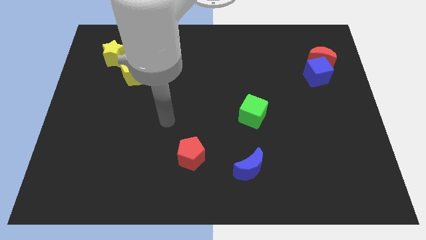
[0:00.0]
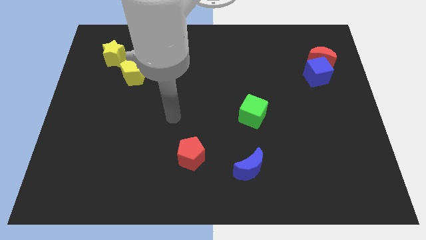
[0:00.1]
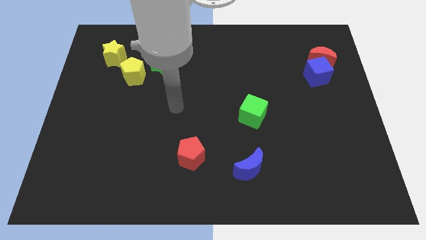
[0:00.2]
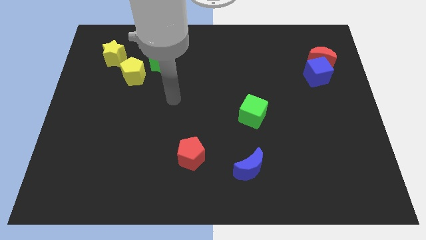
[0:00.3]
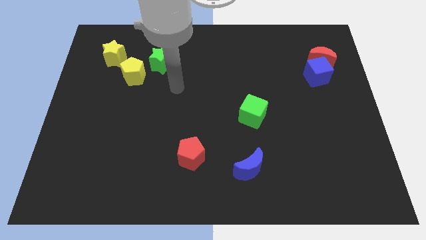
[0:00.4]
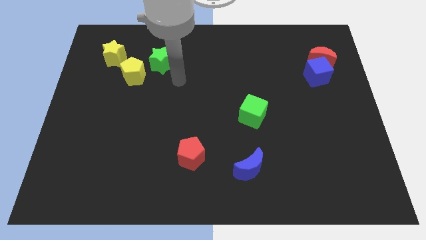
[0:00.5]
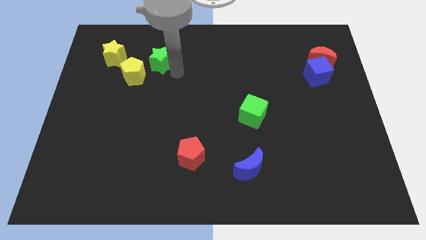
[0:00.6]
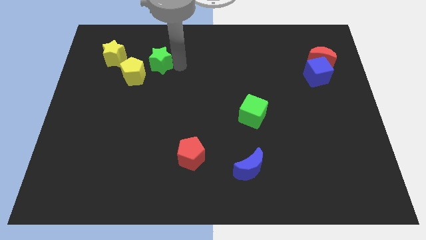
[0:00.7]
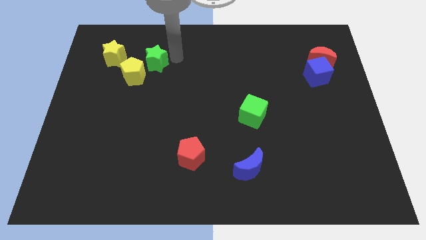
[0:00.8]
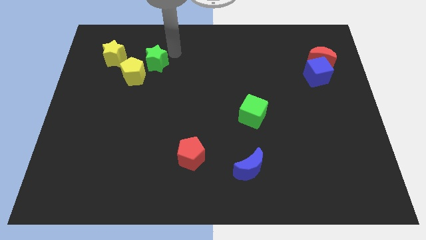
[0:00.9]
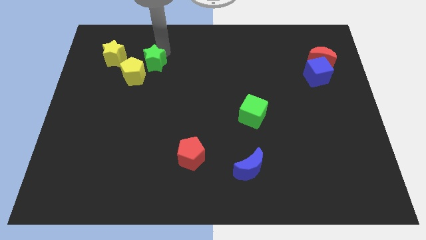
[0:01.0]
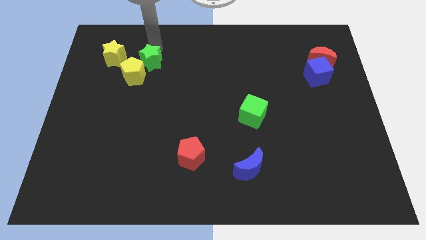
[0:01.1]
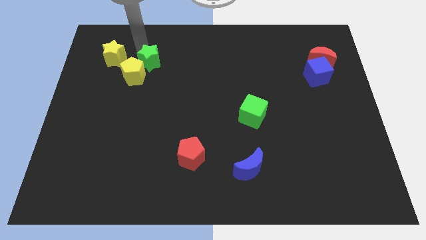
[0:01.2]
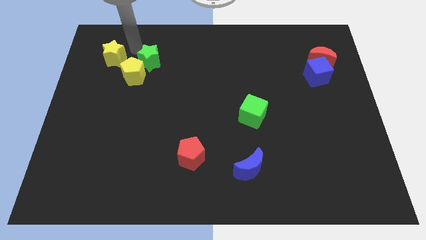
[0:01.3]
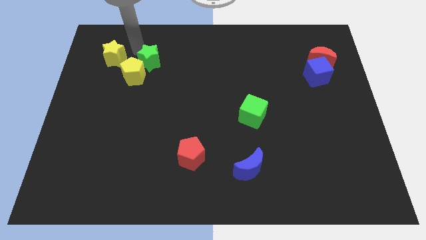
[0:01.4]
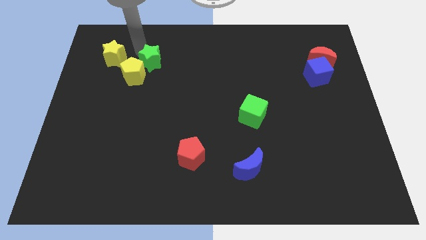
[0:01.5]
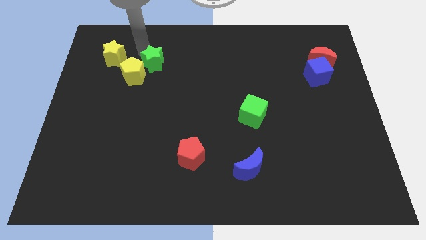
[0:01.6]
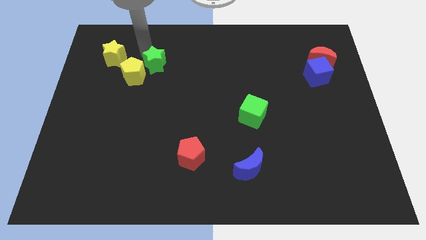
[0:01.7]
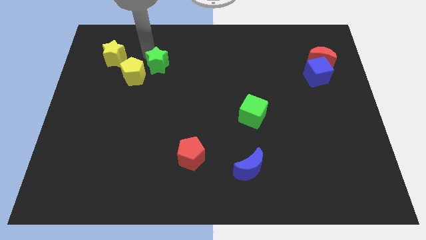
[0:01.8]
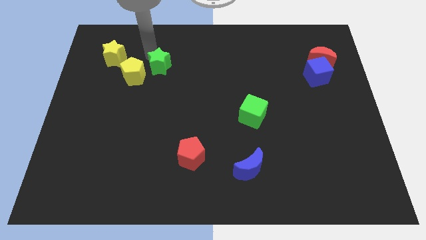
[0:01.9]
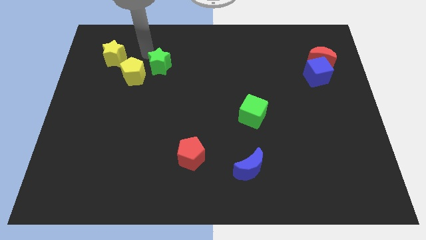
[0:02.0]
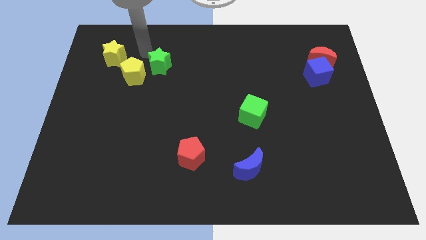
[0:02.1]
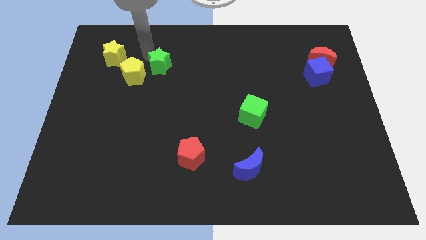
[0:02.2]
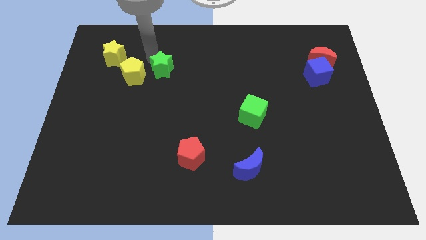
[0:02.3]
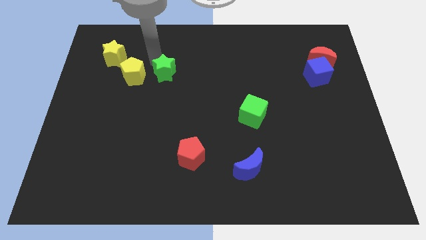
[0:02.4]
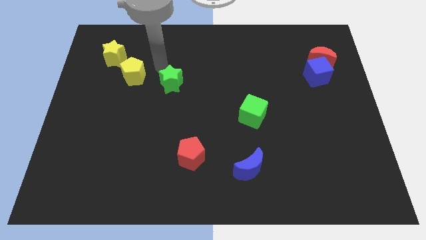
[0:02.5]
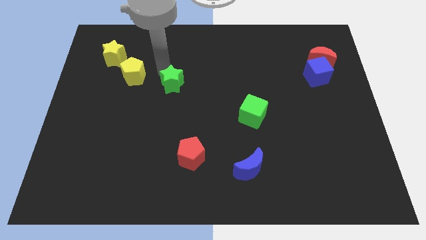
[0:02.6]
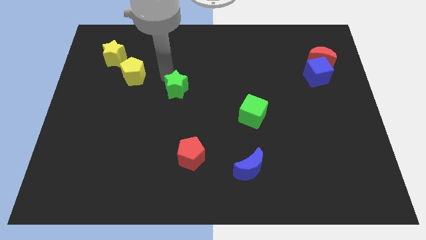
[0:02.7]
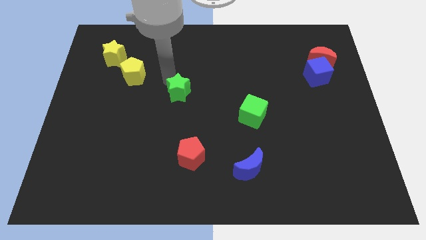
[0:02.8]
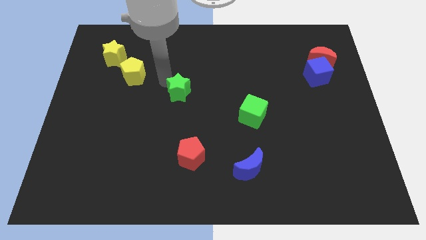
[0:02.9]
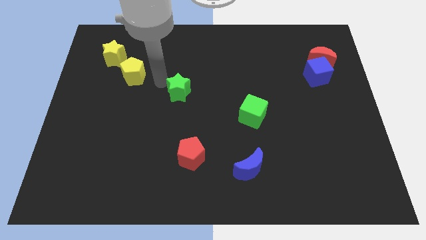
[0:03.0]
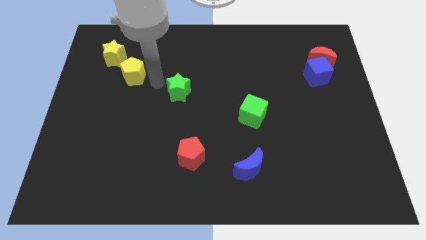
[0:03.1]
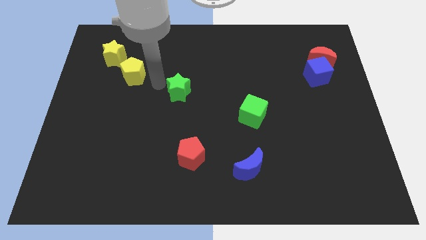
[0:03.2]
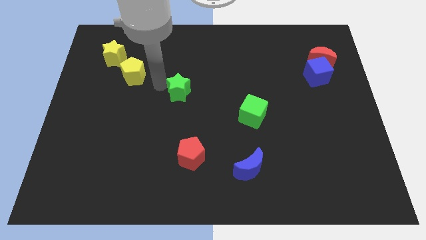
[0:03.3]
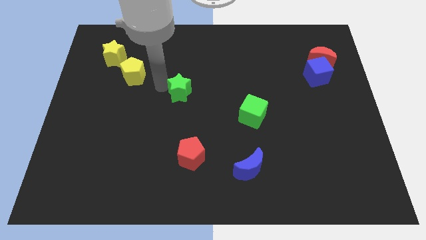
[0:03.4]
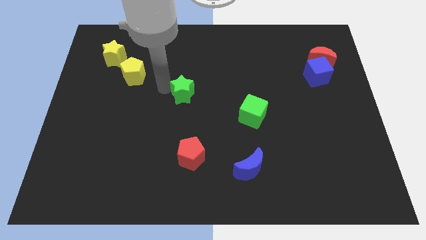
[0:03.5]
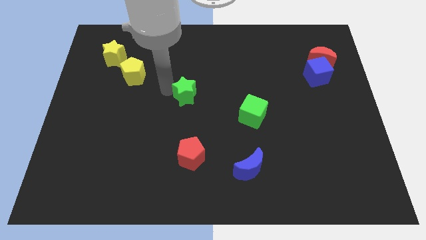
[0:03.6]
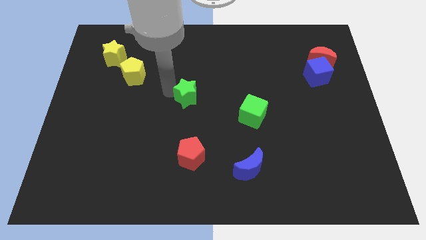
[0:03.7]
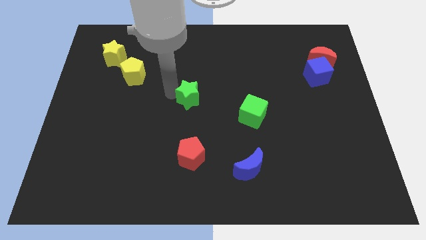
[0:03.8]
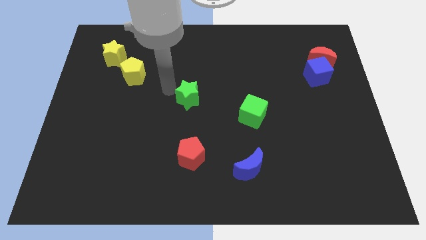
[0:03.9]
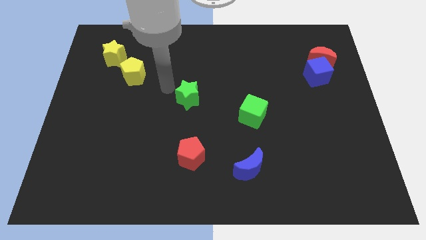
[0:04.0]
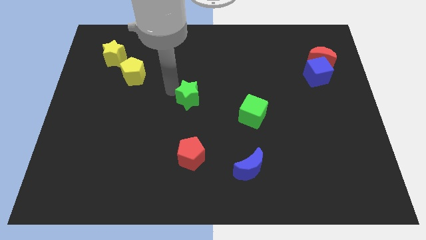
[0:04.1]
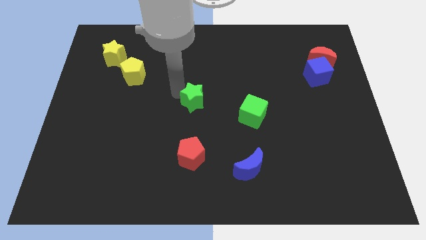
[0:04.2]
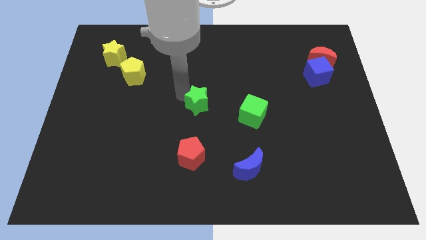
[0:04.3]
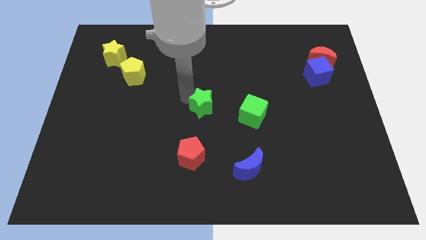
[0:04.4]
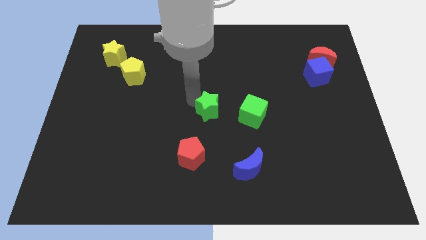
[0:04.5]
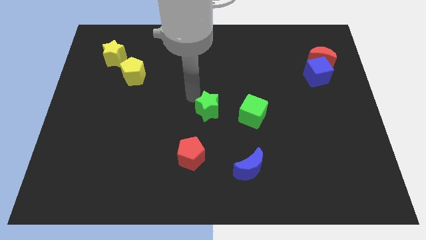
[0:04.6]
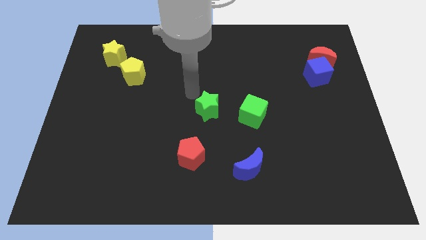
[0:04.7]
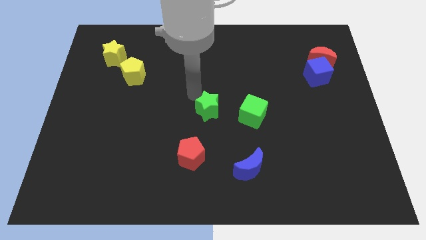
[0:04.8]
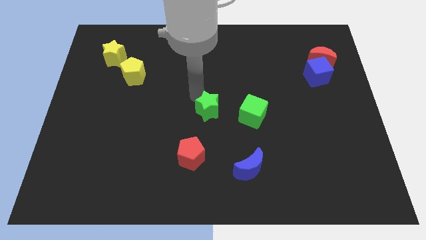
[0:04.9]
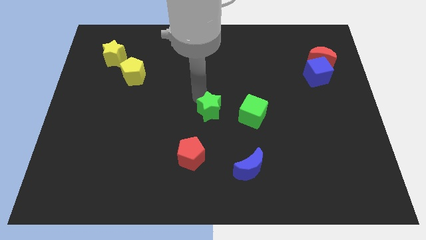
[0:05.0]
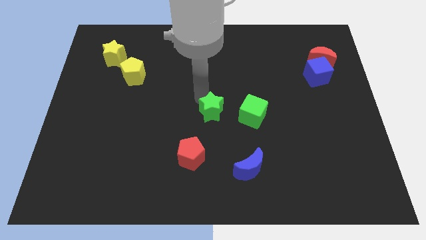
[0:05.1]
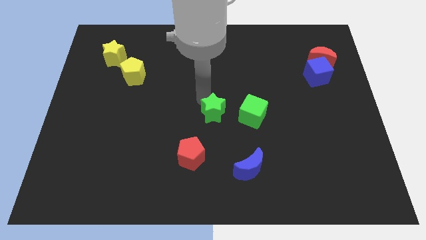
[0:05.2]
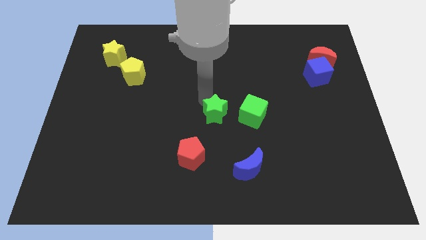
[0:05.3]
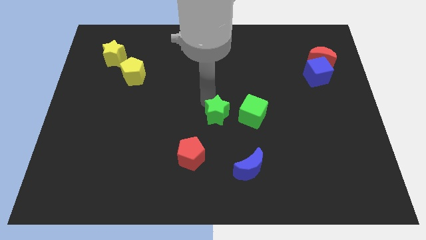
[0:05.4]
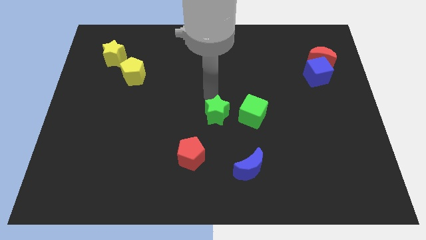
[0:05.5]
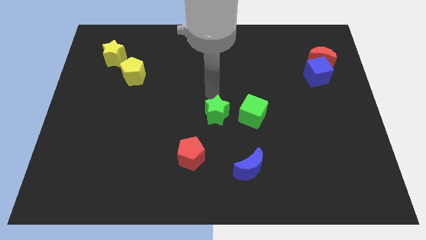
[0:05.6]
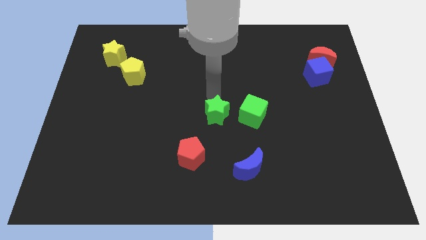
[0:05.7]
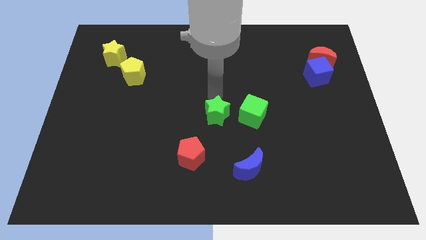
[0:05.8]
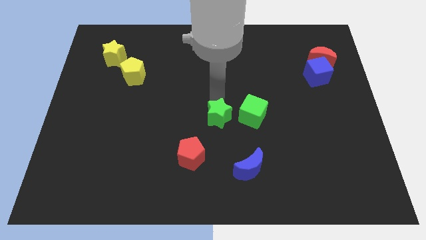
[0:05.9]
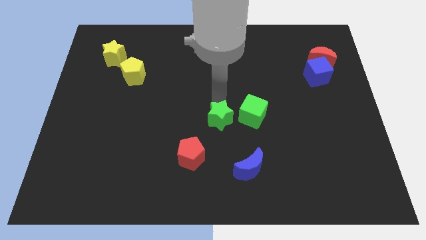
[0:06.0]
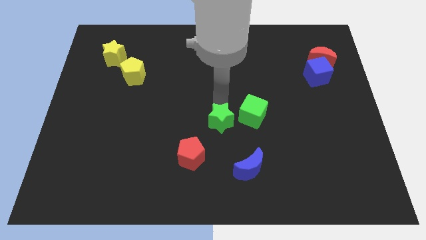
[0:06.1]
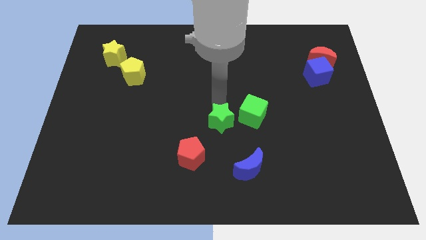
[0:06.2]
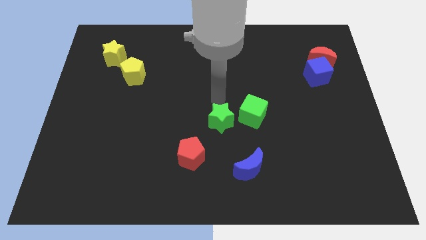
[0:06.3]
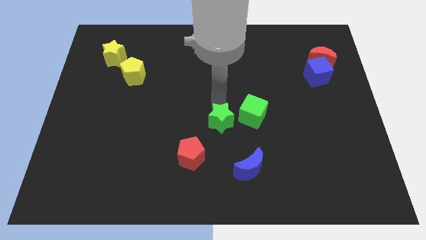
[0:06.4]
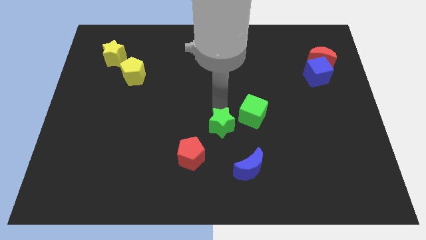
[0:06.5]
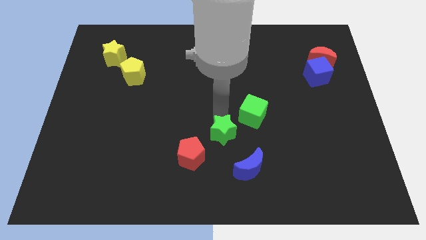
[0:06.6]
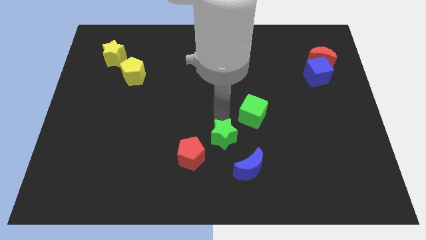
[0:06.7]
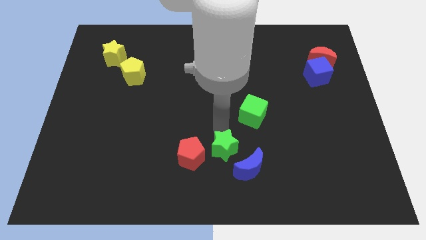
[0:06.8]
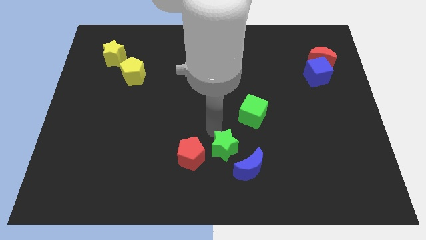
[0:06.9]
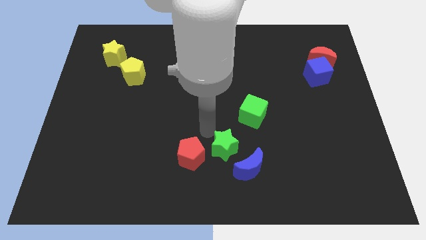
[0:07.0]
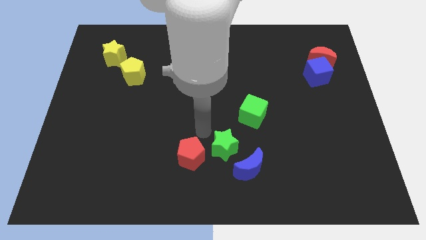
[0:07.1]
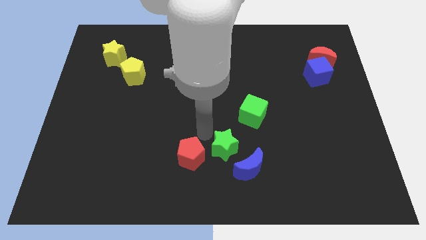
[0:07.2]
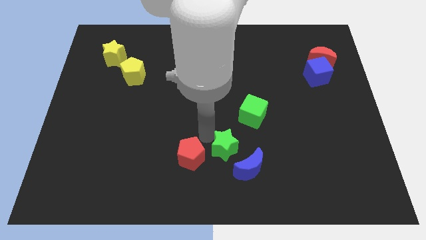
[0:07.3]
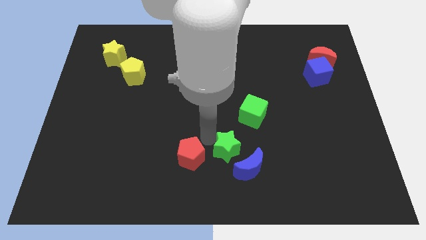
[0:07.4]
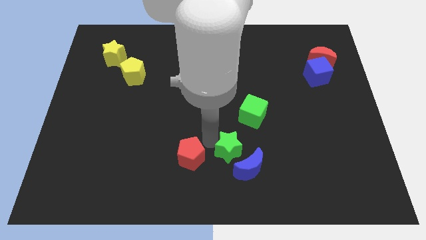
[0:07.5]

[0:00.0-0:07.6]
move the green star to the blue moon
